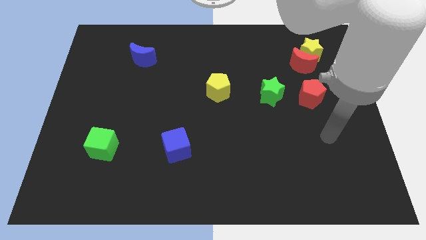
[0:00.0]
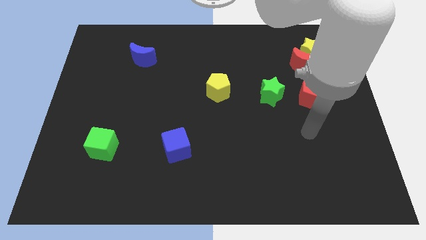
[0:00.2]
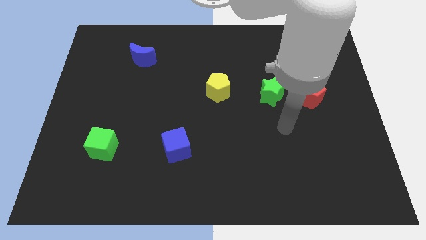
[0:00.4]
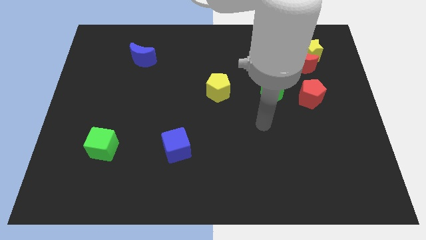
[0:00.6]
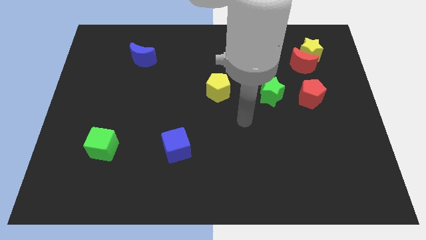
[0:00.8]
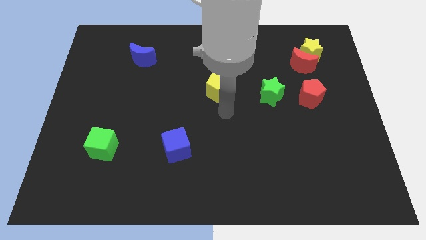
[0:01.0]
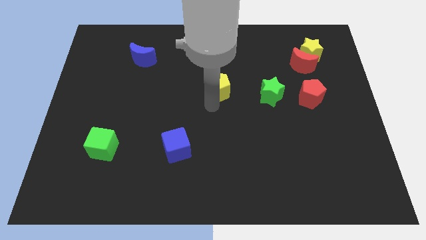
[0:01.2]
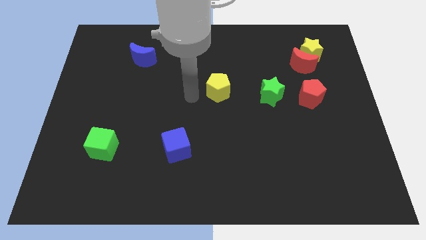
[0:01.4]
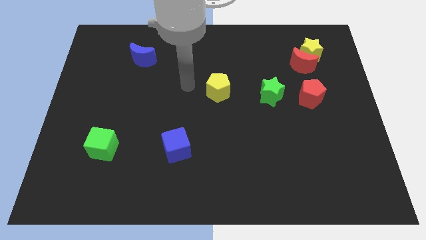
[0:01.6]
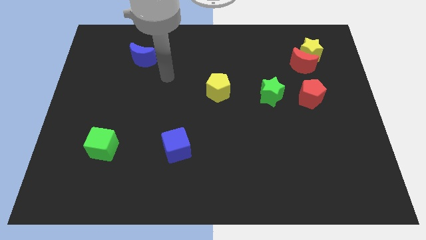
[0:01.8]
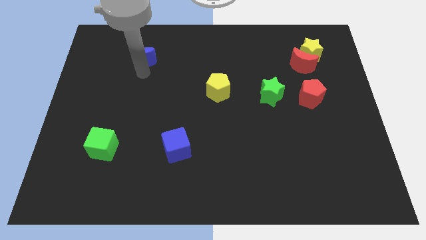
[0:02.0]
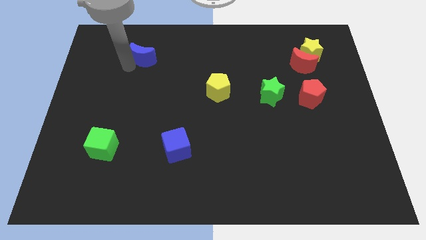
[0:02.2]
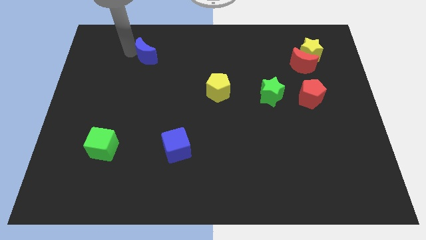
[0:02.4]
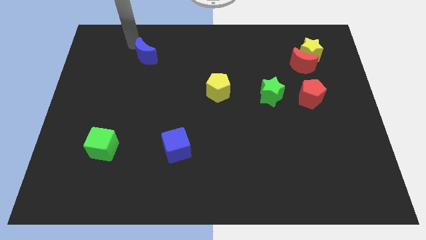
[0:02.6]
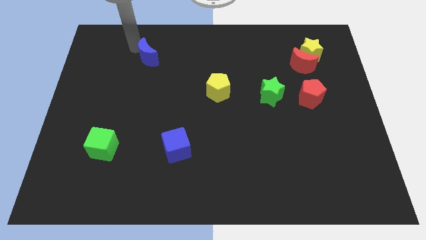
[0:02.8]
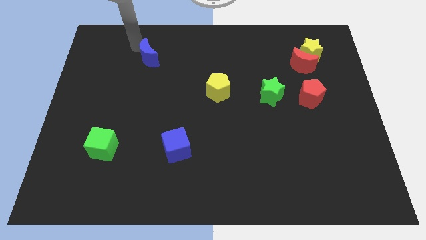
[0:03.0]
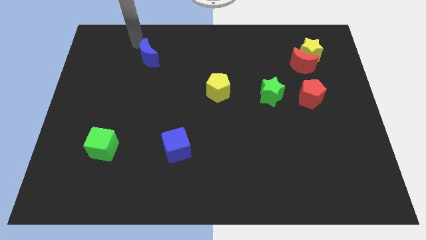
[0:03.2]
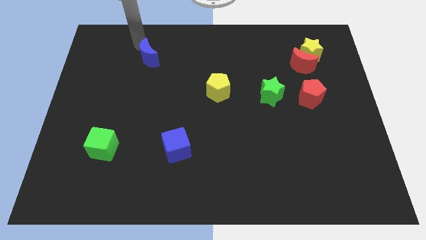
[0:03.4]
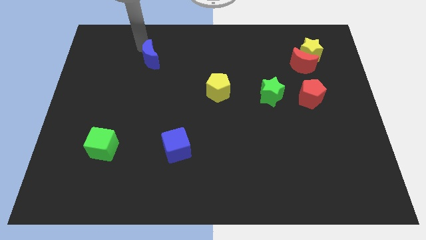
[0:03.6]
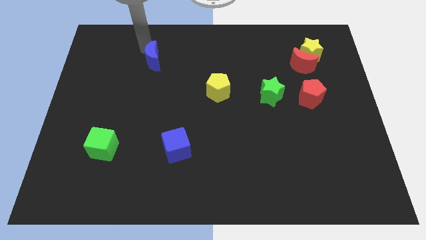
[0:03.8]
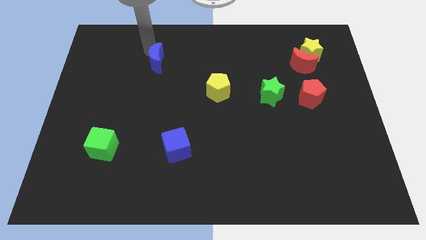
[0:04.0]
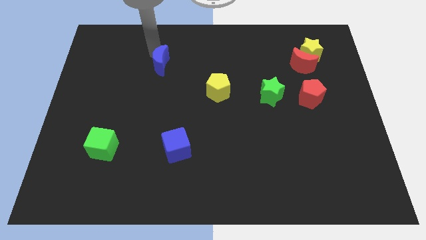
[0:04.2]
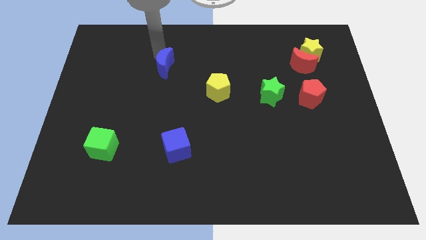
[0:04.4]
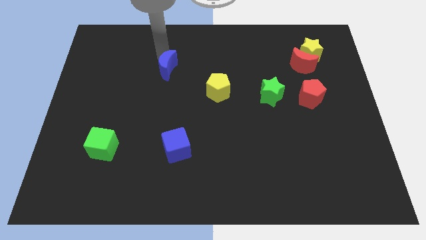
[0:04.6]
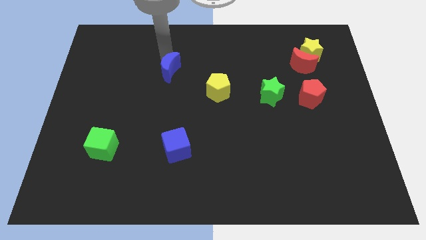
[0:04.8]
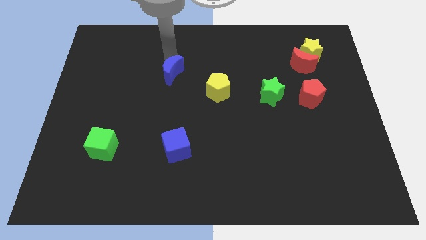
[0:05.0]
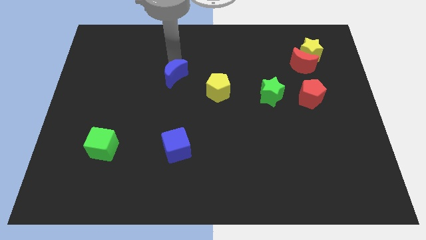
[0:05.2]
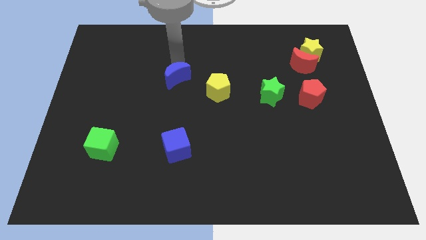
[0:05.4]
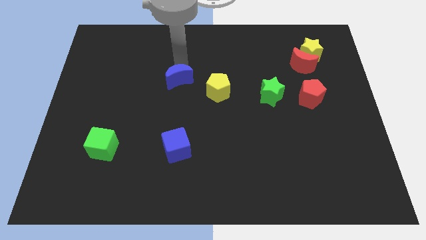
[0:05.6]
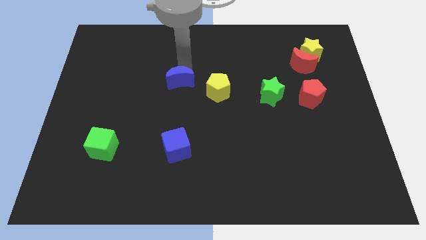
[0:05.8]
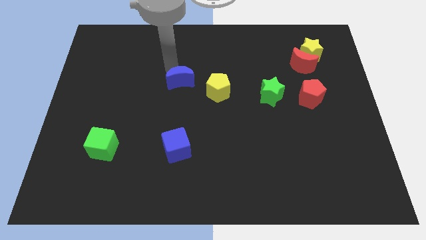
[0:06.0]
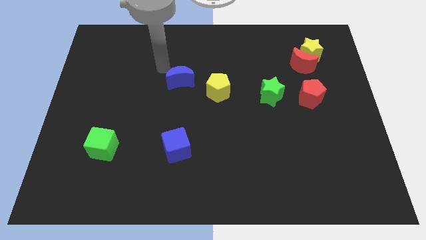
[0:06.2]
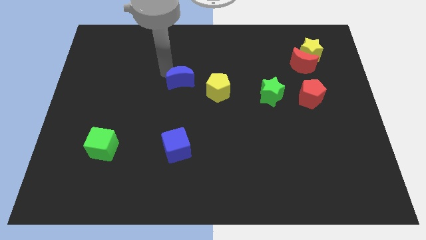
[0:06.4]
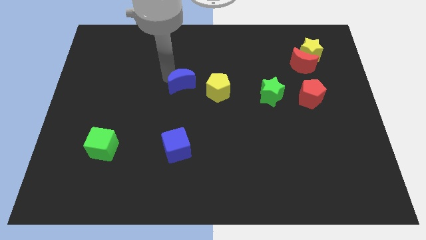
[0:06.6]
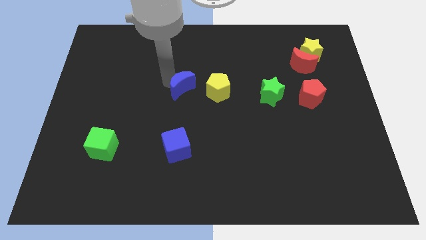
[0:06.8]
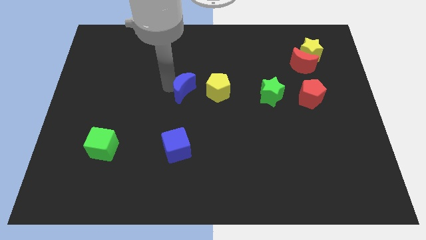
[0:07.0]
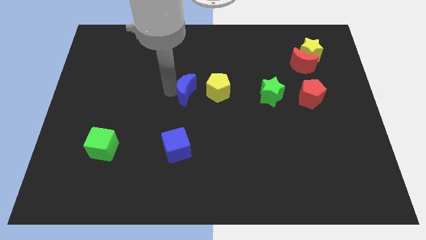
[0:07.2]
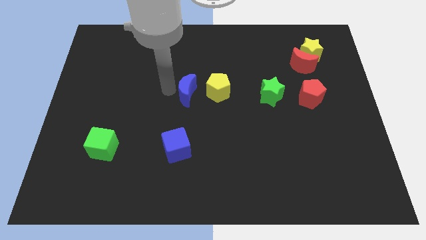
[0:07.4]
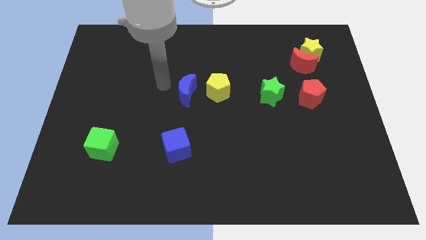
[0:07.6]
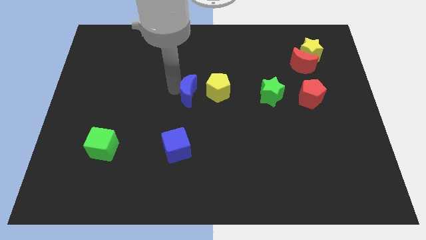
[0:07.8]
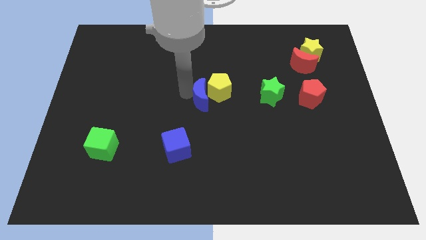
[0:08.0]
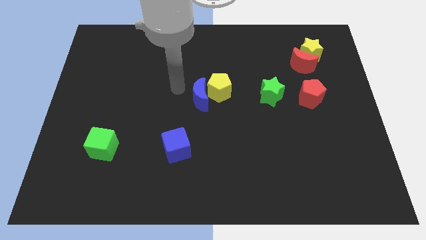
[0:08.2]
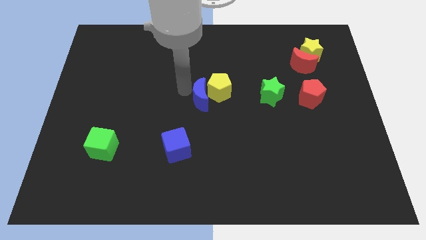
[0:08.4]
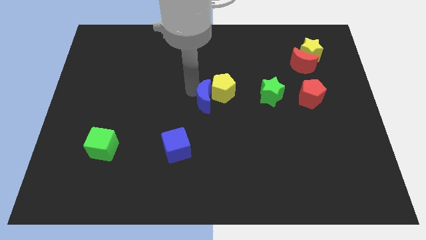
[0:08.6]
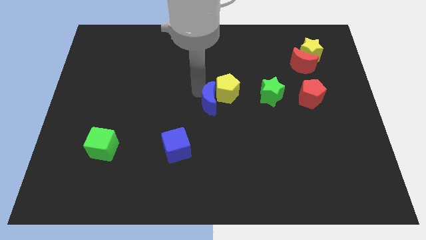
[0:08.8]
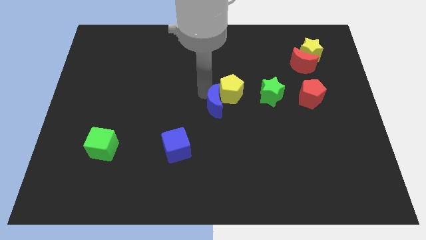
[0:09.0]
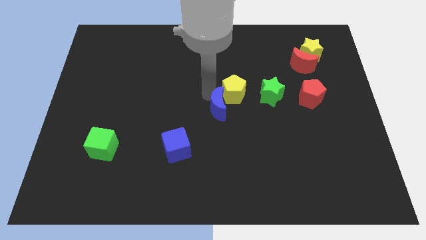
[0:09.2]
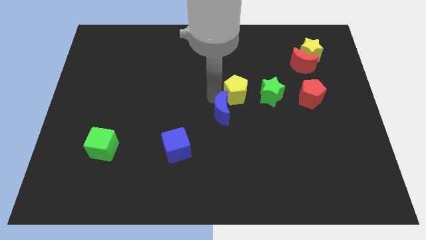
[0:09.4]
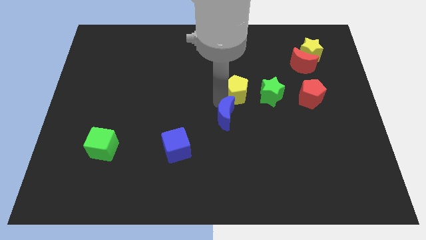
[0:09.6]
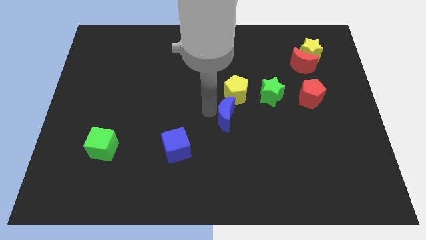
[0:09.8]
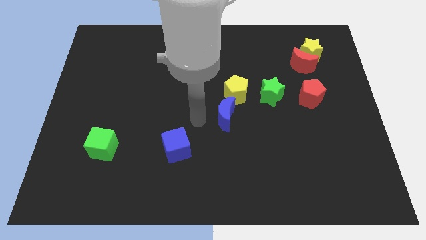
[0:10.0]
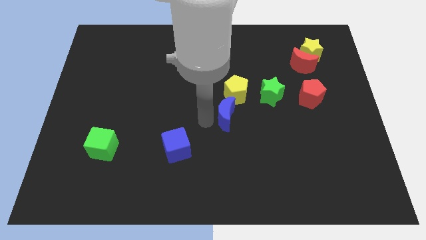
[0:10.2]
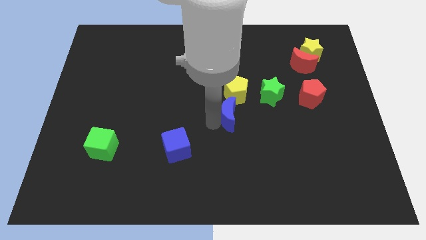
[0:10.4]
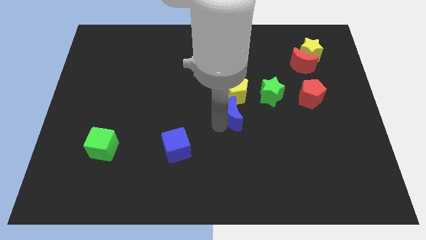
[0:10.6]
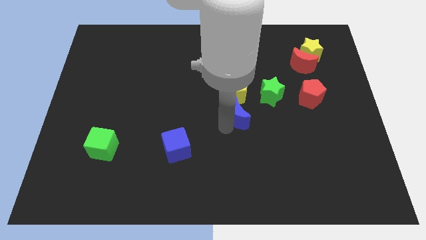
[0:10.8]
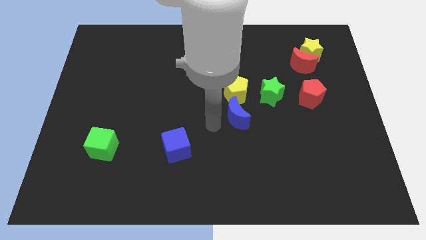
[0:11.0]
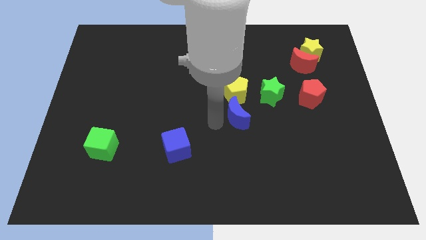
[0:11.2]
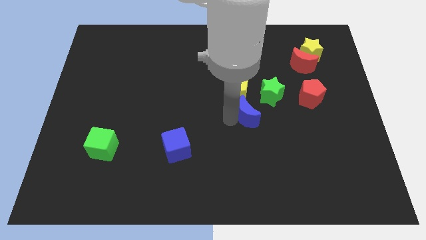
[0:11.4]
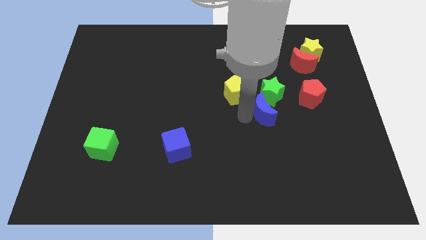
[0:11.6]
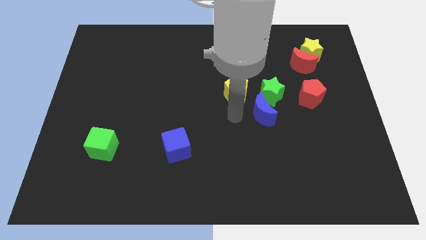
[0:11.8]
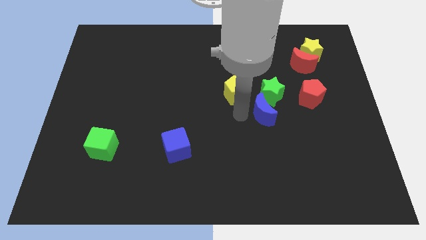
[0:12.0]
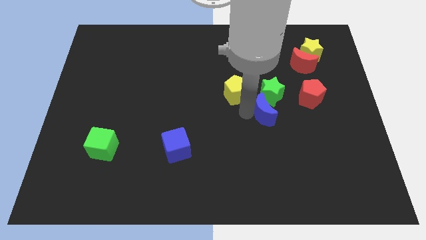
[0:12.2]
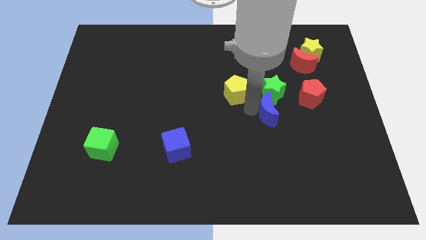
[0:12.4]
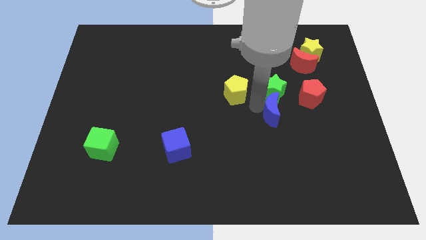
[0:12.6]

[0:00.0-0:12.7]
push the blue moon to the bottom right side of the green star

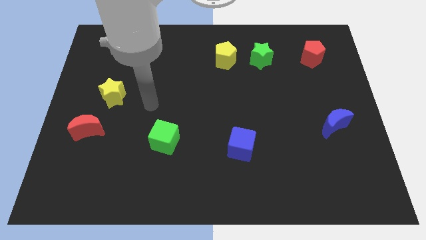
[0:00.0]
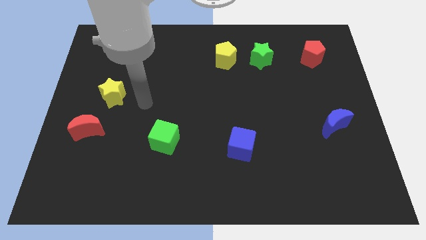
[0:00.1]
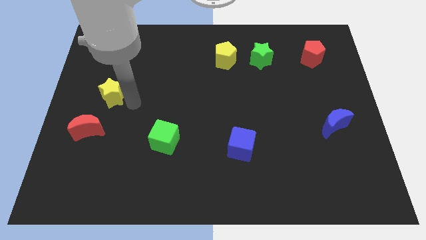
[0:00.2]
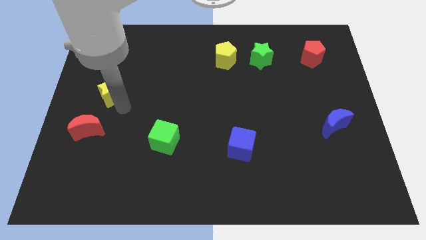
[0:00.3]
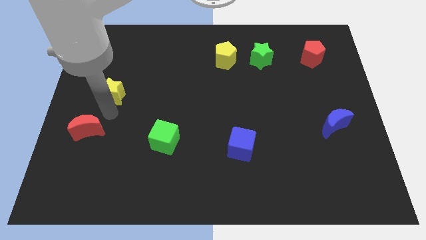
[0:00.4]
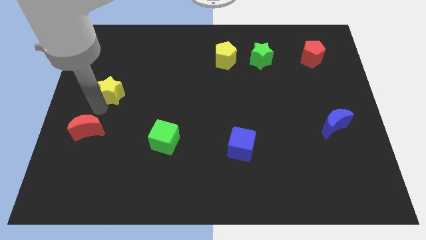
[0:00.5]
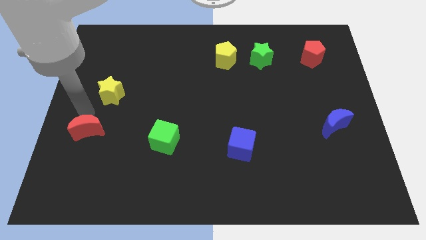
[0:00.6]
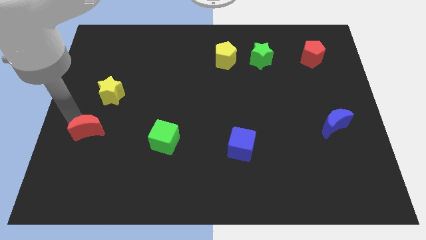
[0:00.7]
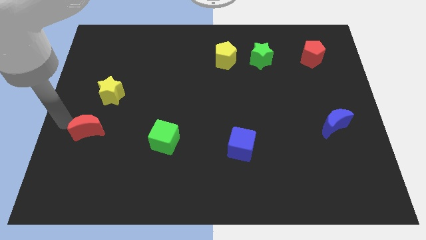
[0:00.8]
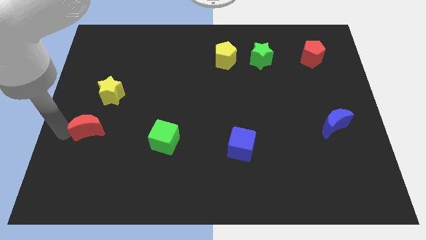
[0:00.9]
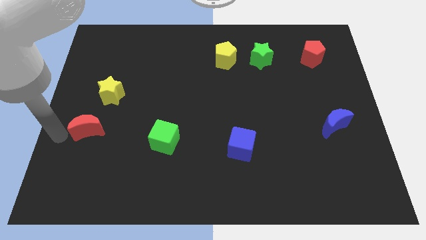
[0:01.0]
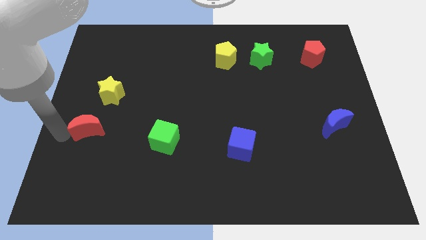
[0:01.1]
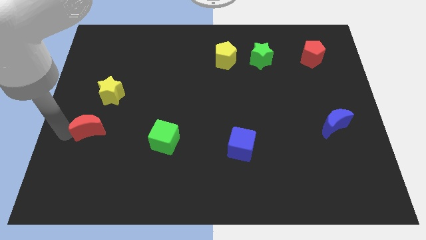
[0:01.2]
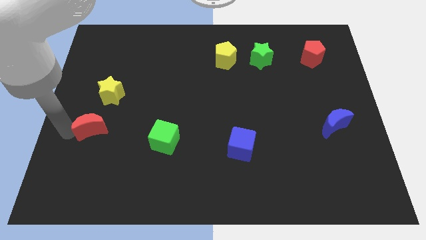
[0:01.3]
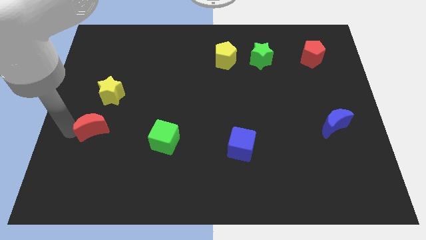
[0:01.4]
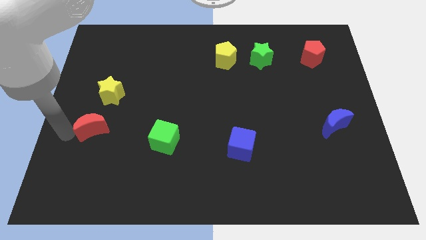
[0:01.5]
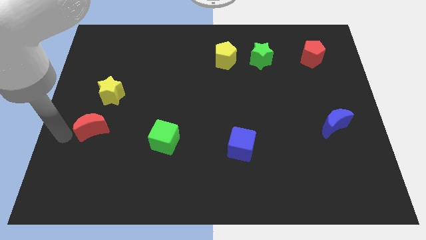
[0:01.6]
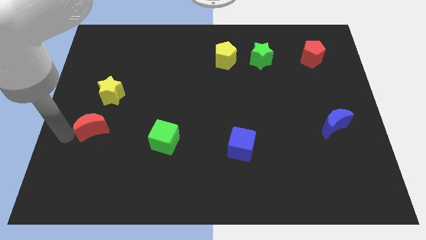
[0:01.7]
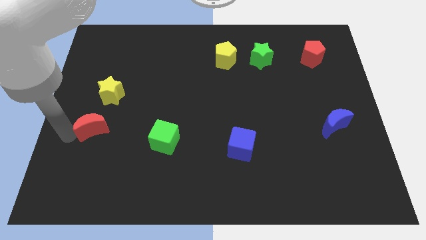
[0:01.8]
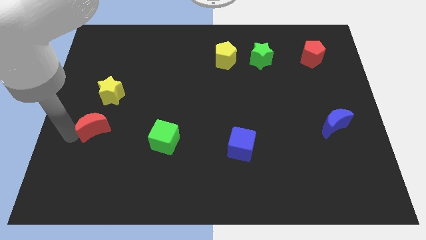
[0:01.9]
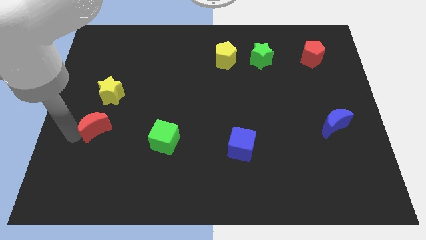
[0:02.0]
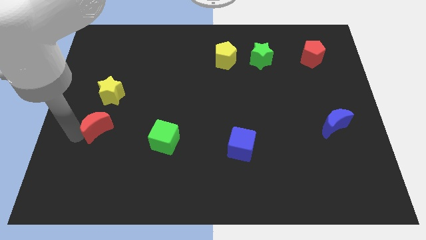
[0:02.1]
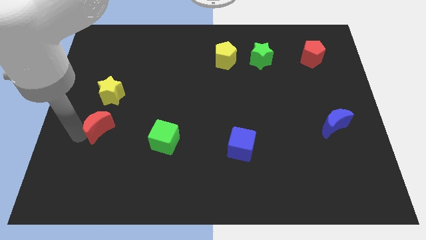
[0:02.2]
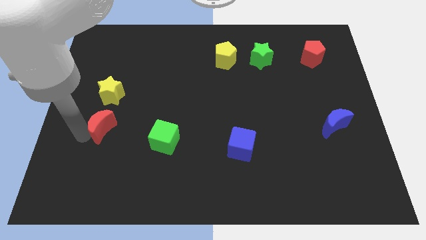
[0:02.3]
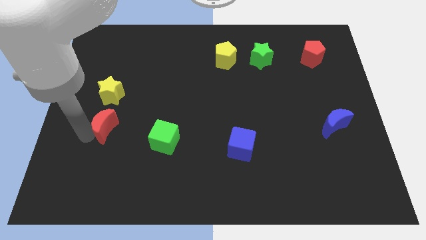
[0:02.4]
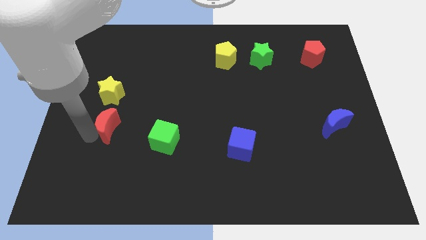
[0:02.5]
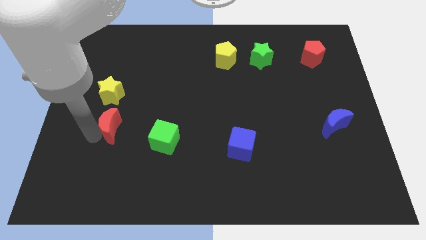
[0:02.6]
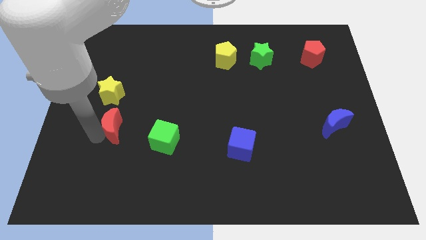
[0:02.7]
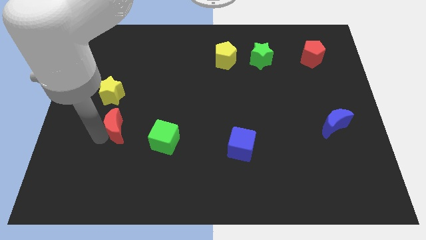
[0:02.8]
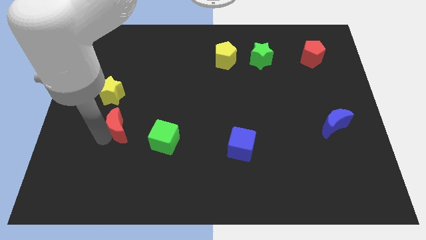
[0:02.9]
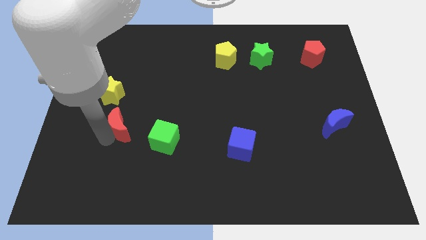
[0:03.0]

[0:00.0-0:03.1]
put the red moon to the bottom right of the yellow star
